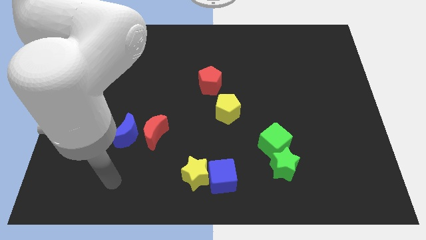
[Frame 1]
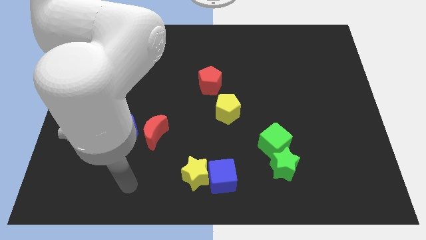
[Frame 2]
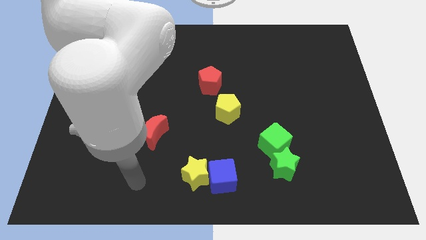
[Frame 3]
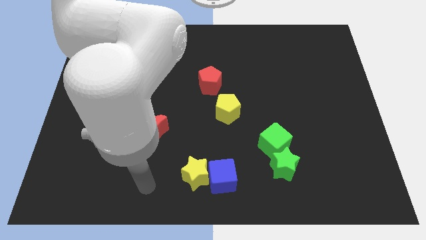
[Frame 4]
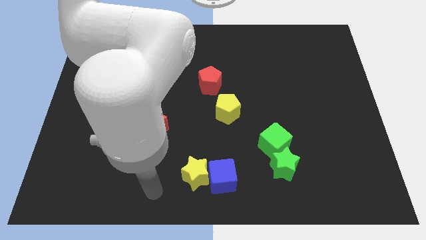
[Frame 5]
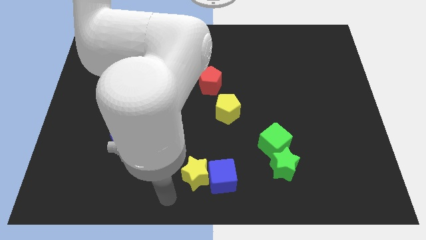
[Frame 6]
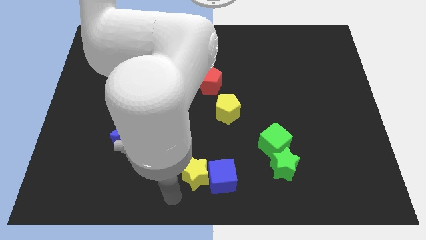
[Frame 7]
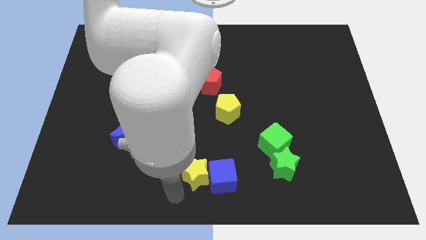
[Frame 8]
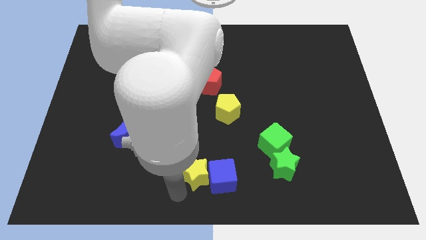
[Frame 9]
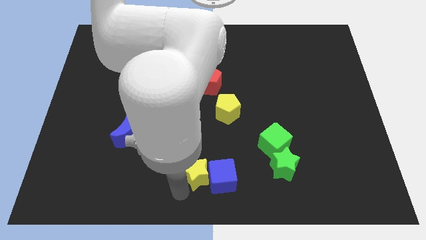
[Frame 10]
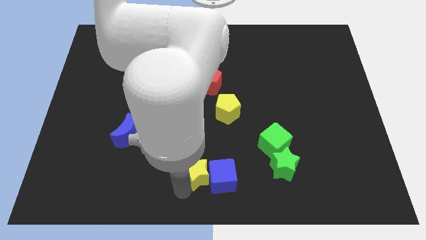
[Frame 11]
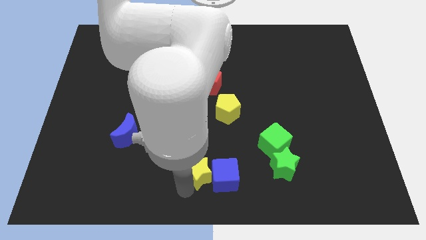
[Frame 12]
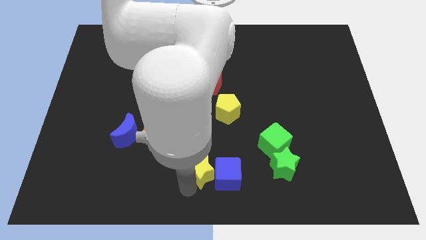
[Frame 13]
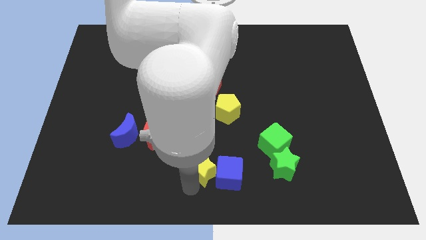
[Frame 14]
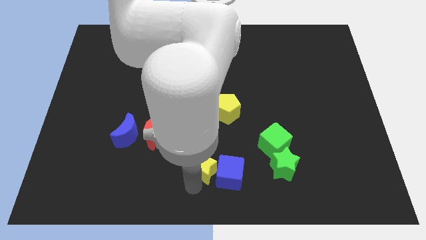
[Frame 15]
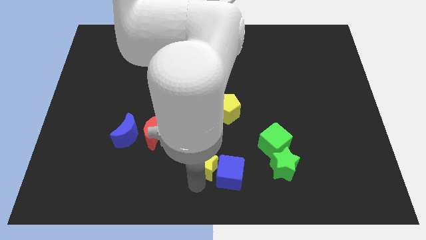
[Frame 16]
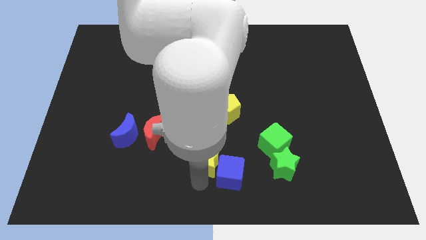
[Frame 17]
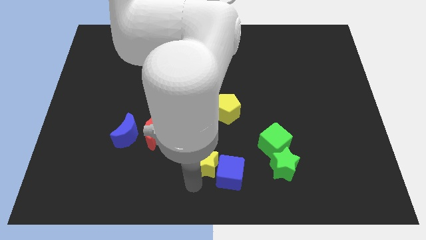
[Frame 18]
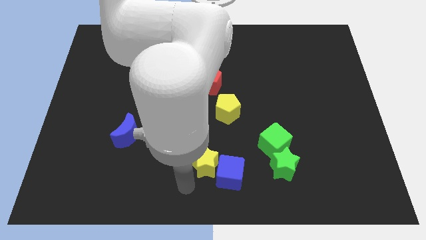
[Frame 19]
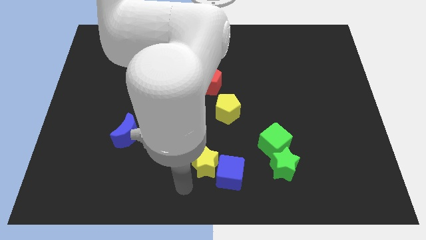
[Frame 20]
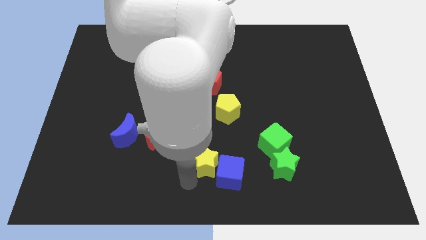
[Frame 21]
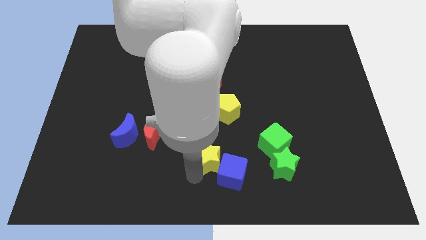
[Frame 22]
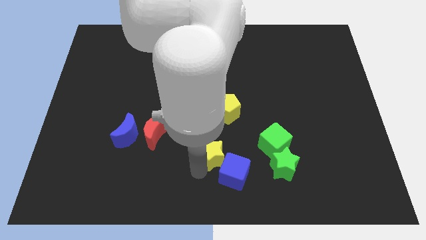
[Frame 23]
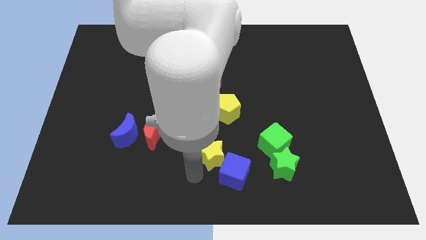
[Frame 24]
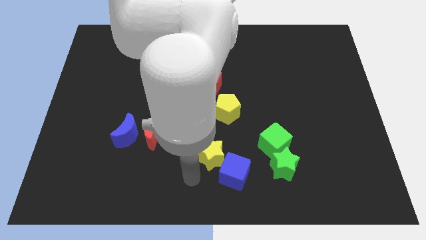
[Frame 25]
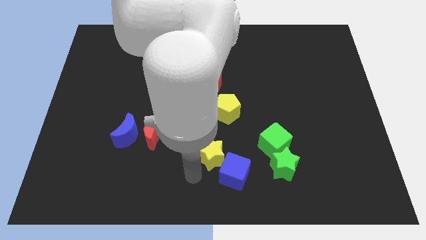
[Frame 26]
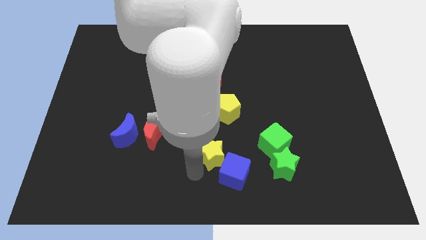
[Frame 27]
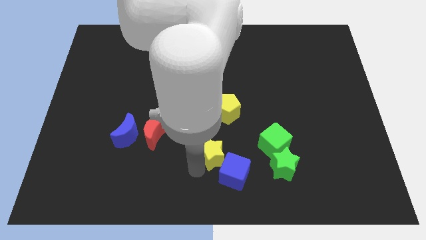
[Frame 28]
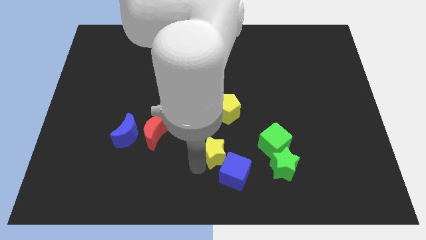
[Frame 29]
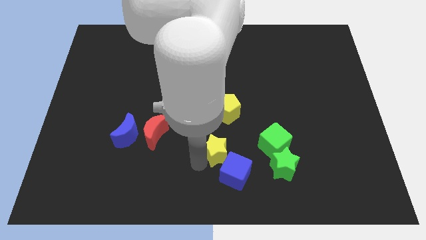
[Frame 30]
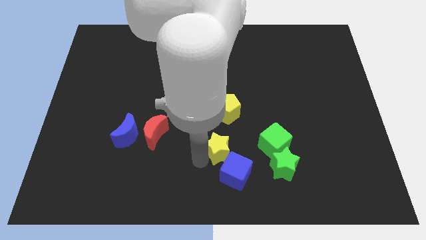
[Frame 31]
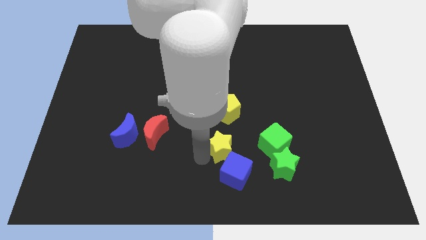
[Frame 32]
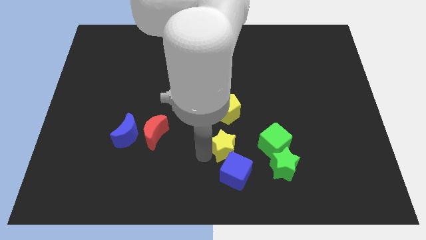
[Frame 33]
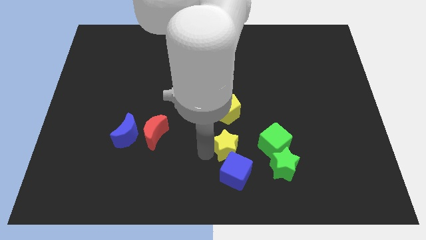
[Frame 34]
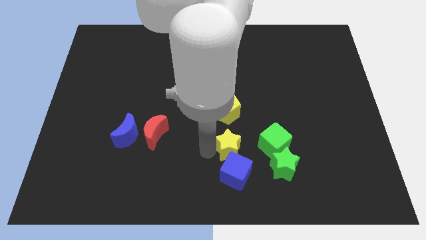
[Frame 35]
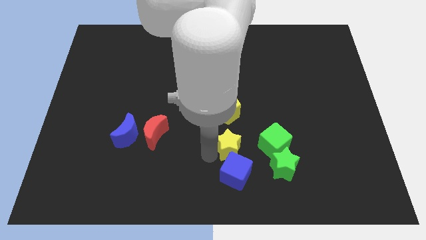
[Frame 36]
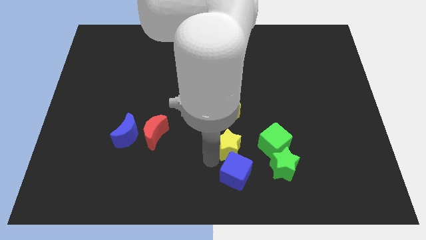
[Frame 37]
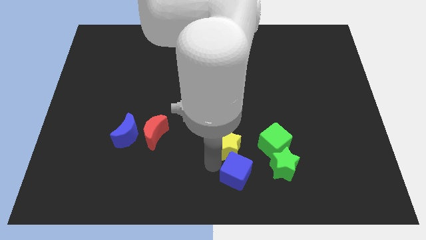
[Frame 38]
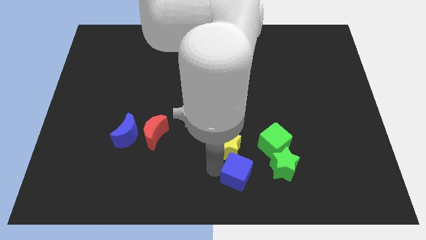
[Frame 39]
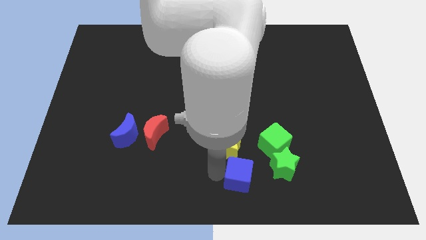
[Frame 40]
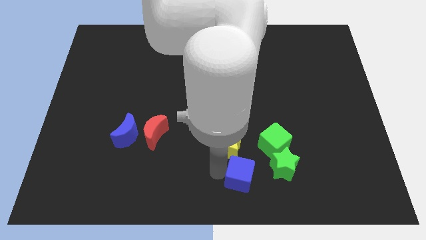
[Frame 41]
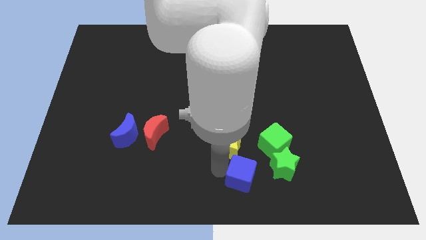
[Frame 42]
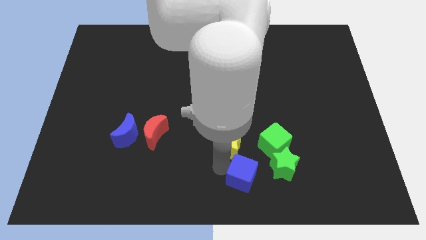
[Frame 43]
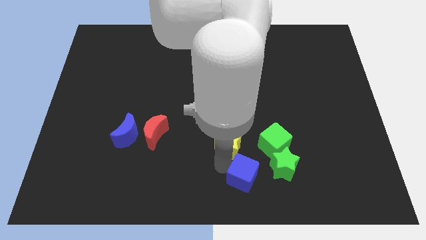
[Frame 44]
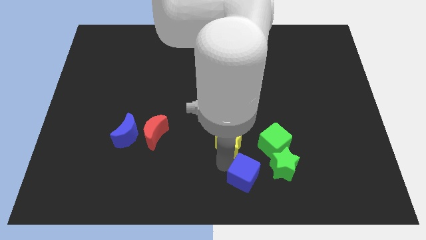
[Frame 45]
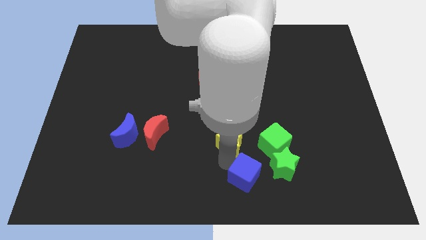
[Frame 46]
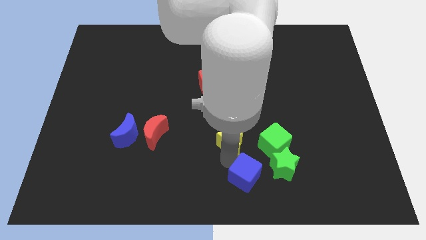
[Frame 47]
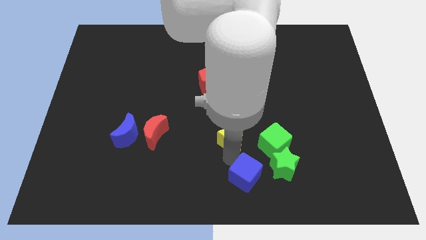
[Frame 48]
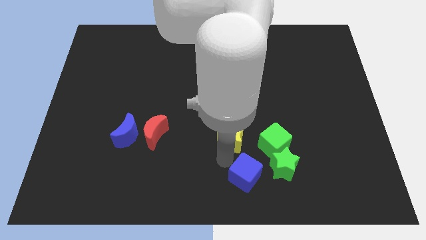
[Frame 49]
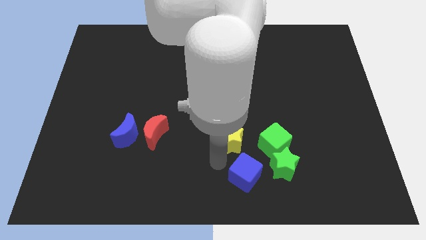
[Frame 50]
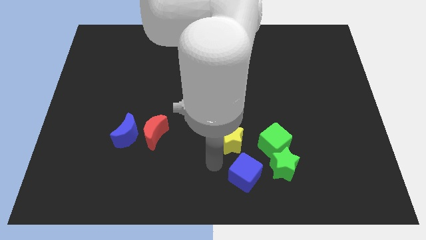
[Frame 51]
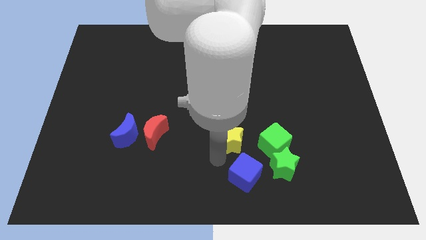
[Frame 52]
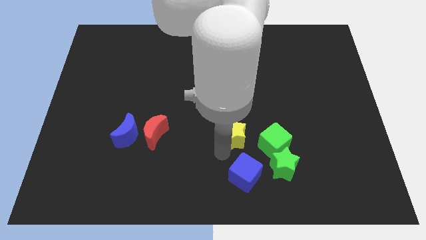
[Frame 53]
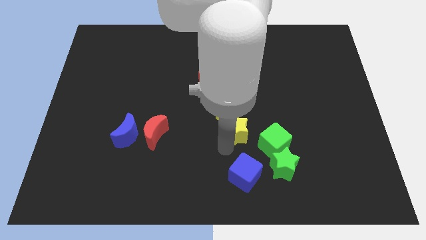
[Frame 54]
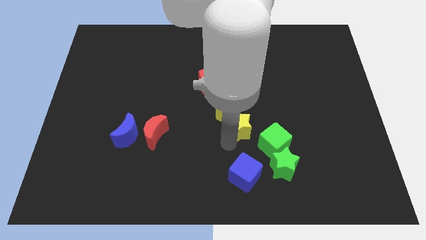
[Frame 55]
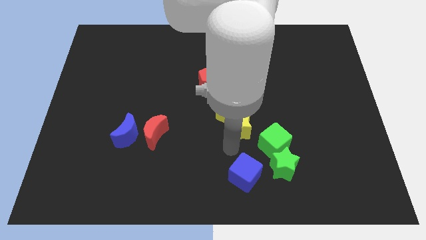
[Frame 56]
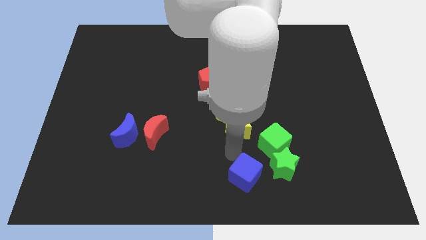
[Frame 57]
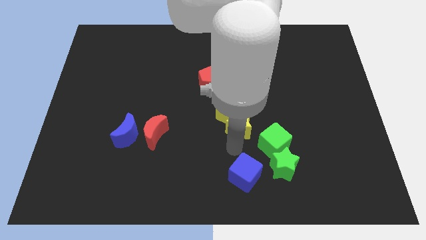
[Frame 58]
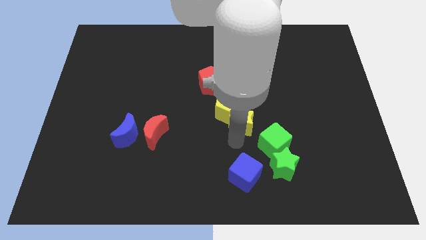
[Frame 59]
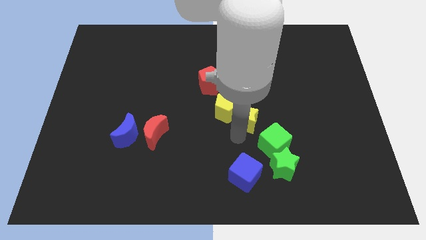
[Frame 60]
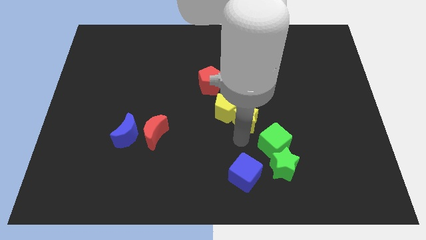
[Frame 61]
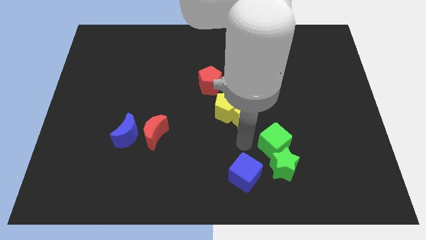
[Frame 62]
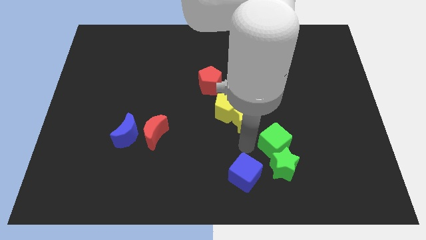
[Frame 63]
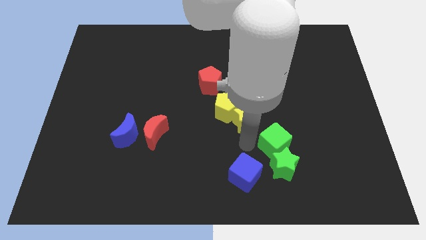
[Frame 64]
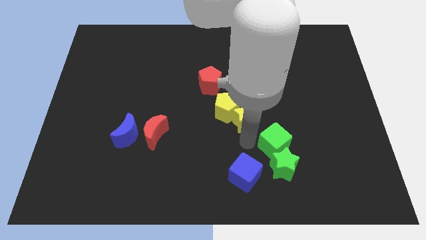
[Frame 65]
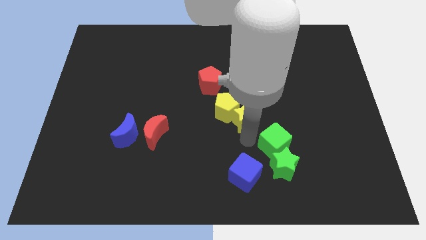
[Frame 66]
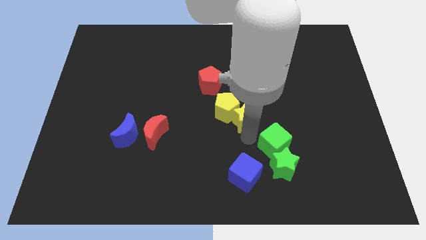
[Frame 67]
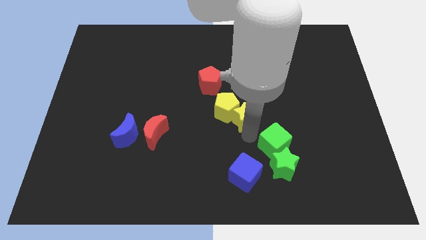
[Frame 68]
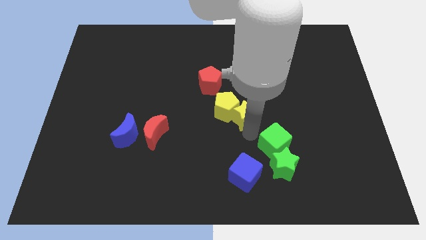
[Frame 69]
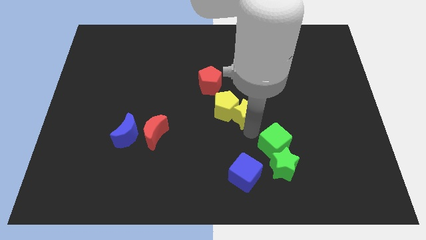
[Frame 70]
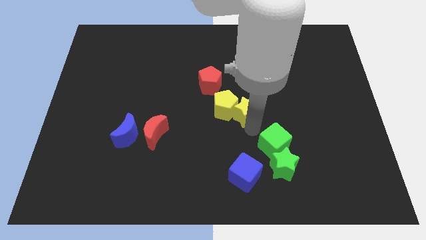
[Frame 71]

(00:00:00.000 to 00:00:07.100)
put the yellow star to the bottom right side of the red pentagon
